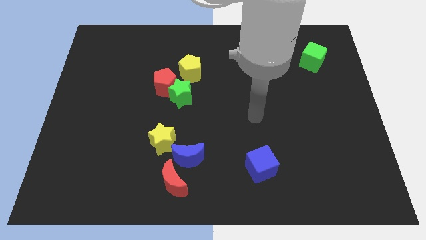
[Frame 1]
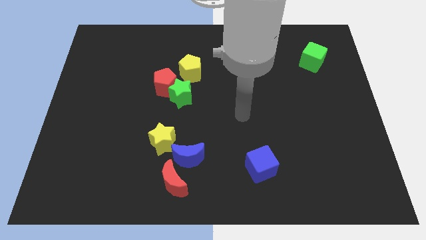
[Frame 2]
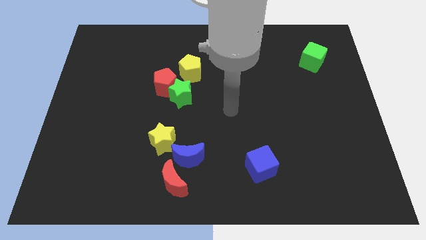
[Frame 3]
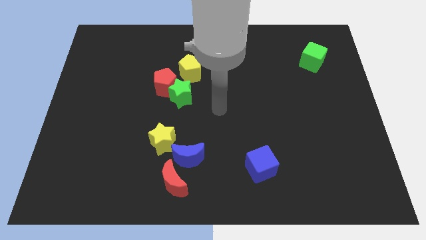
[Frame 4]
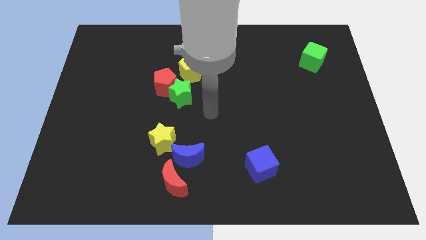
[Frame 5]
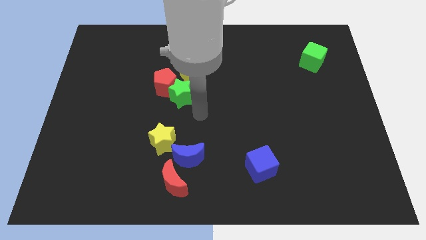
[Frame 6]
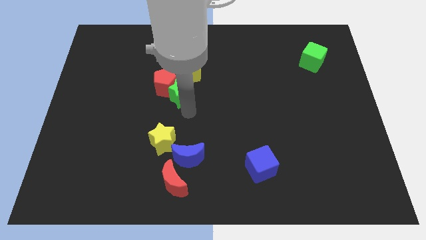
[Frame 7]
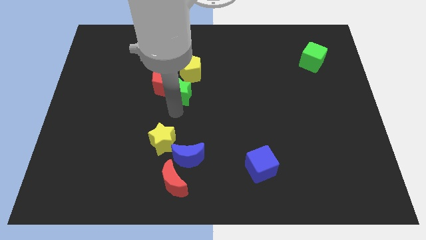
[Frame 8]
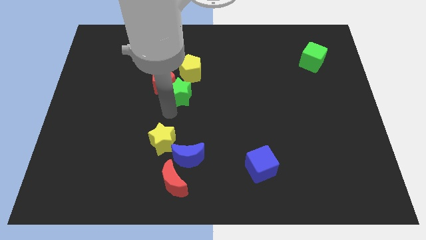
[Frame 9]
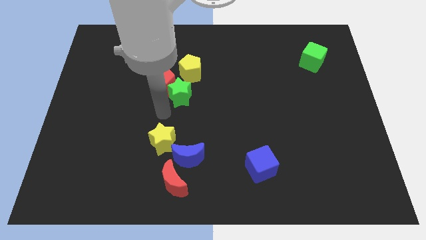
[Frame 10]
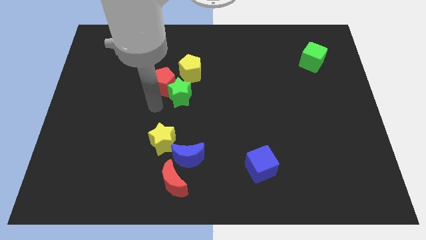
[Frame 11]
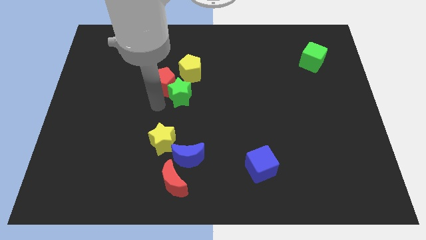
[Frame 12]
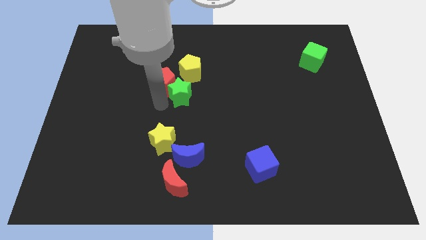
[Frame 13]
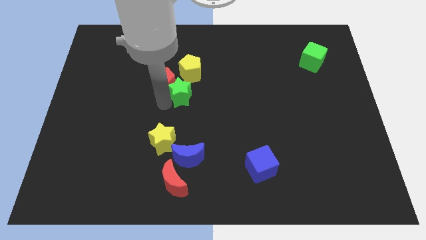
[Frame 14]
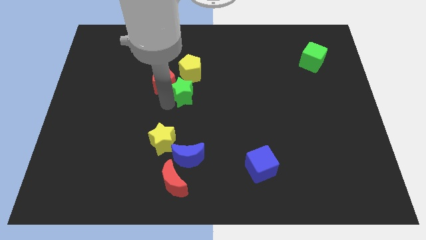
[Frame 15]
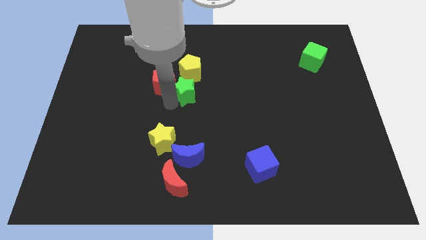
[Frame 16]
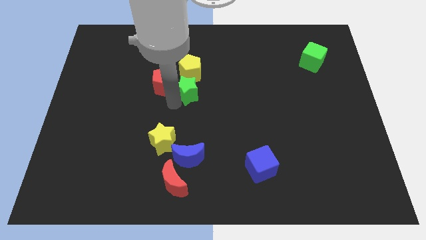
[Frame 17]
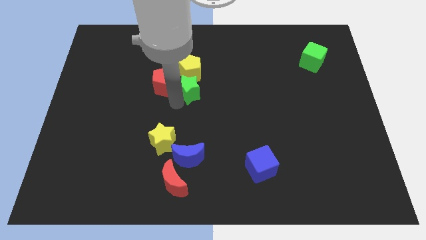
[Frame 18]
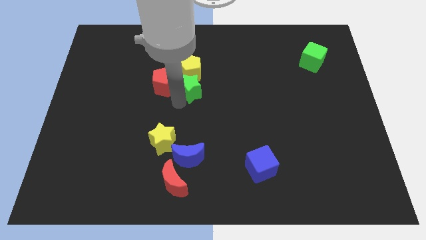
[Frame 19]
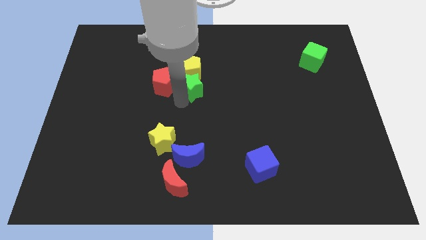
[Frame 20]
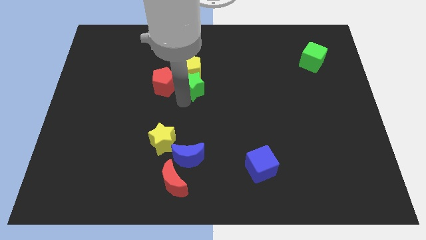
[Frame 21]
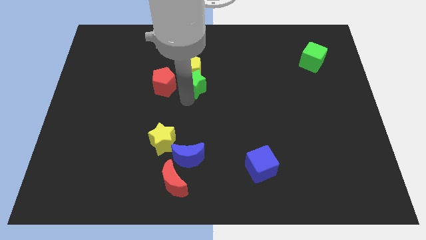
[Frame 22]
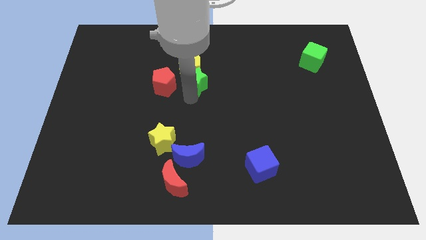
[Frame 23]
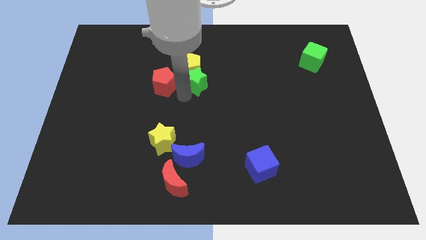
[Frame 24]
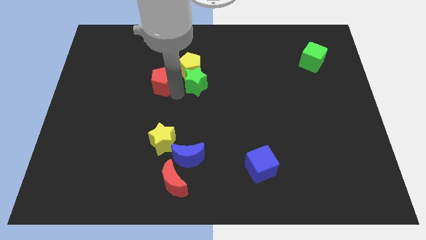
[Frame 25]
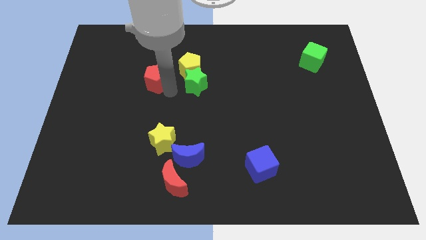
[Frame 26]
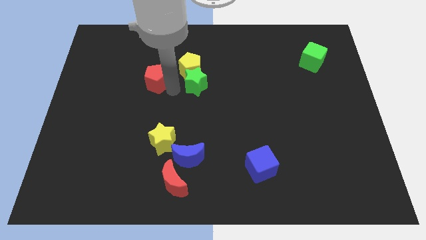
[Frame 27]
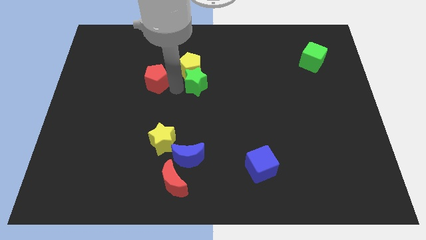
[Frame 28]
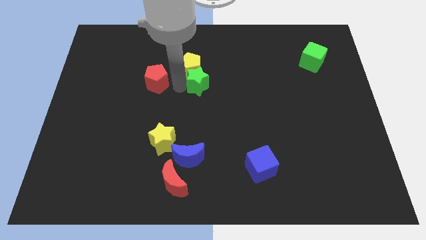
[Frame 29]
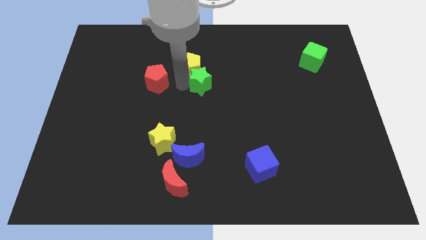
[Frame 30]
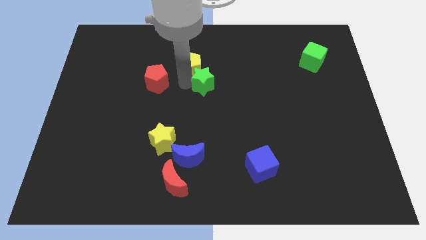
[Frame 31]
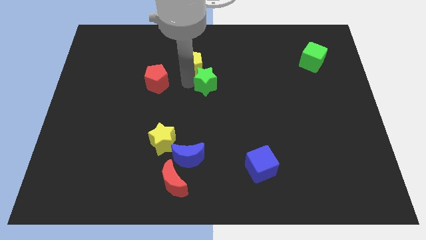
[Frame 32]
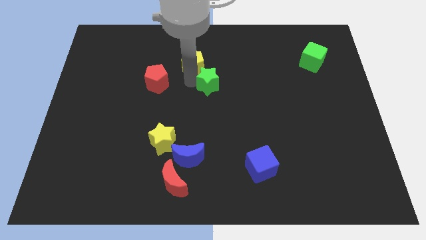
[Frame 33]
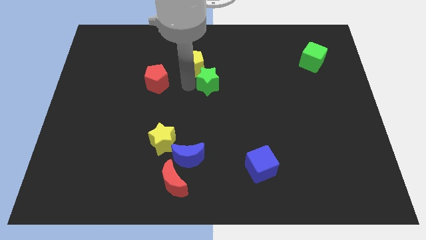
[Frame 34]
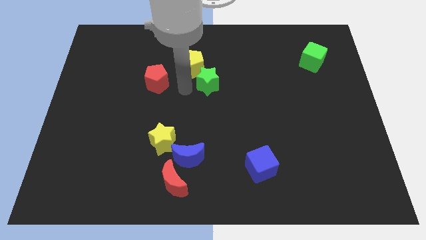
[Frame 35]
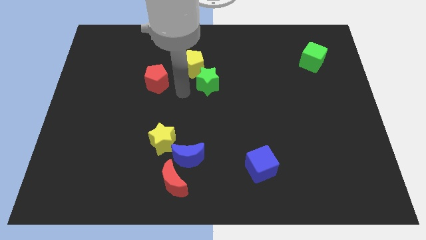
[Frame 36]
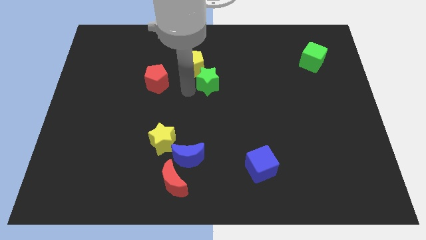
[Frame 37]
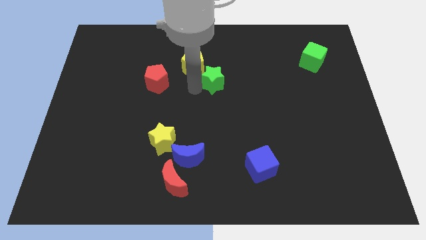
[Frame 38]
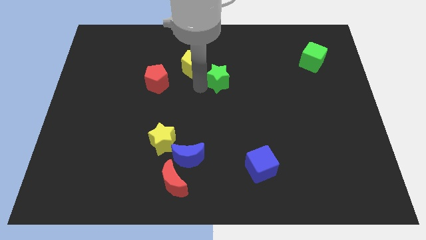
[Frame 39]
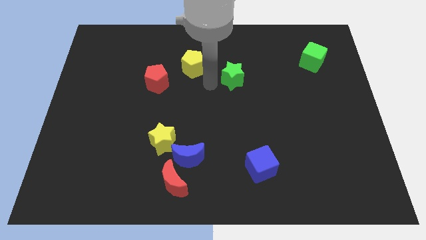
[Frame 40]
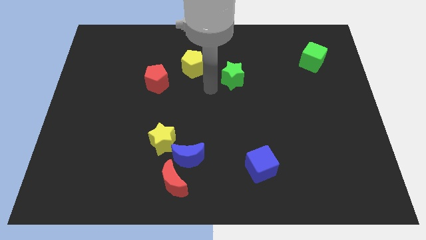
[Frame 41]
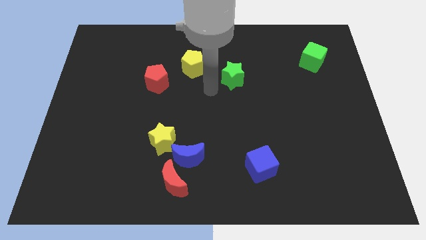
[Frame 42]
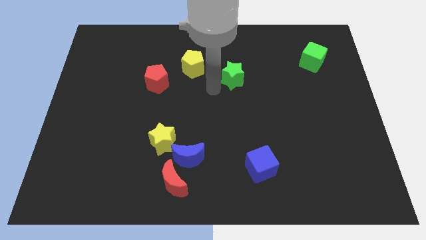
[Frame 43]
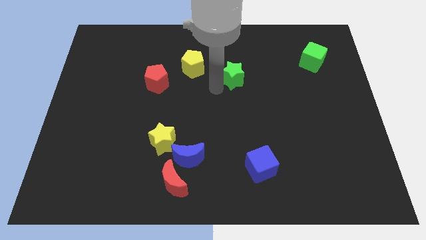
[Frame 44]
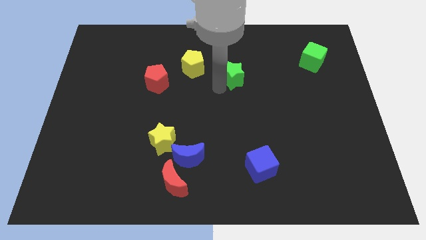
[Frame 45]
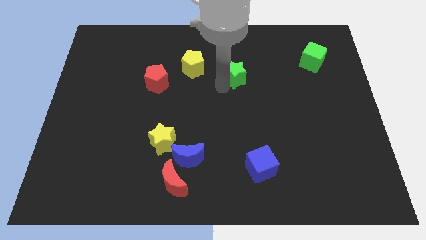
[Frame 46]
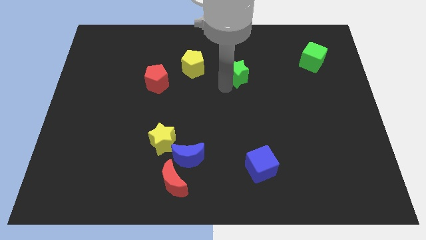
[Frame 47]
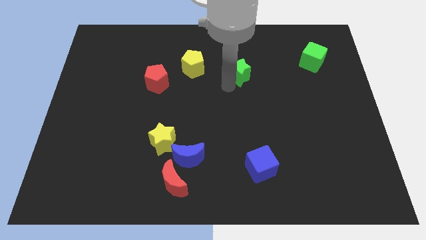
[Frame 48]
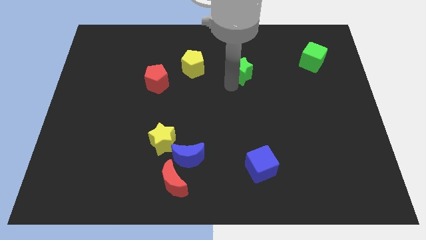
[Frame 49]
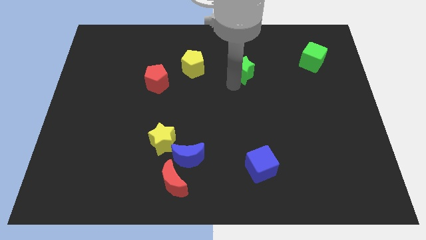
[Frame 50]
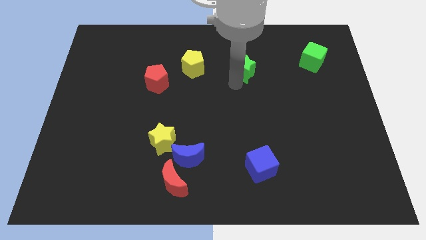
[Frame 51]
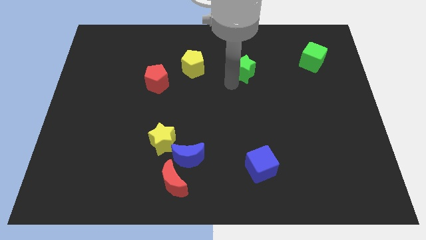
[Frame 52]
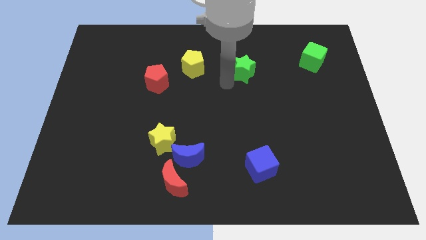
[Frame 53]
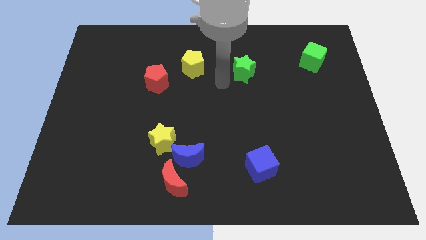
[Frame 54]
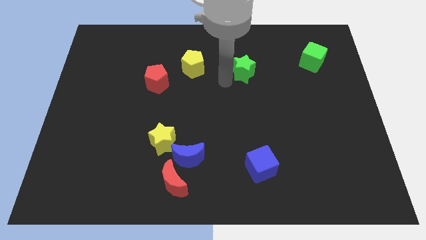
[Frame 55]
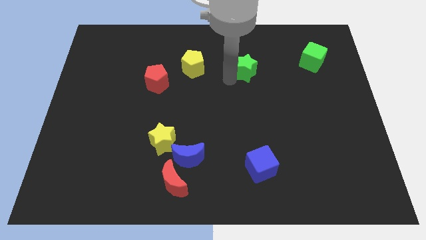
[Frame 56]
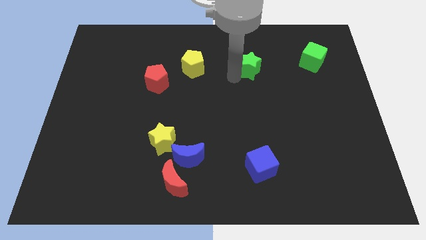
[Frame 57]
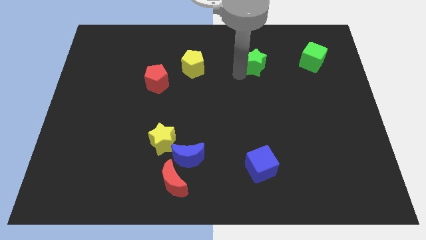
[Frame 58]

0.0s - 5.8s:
push the green star to the left of the green cube

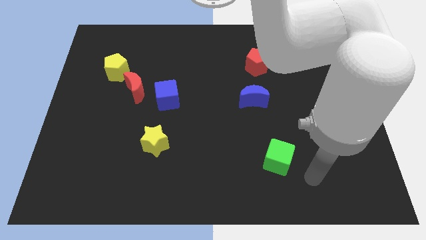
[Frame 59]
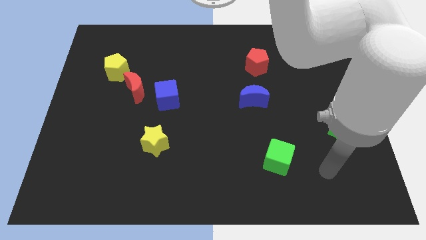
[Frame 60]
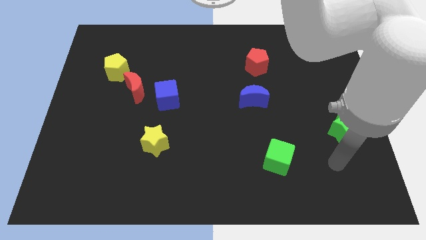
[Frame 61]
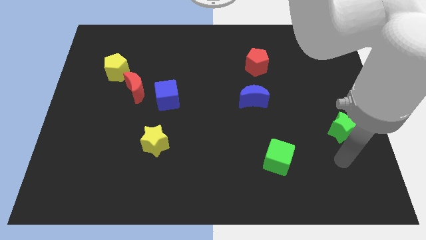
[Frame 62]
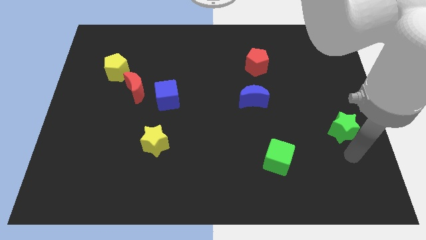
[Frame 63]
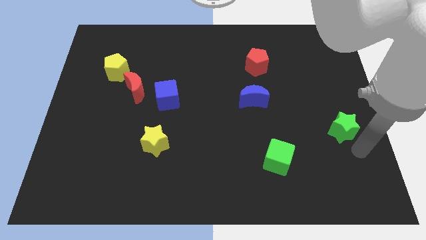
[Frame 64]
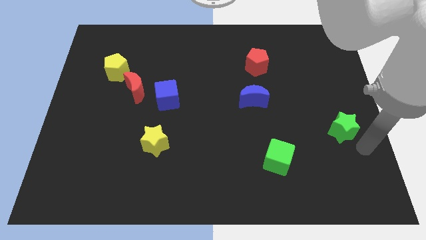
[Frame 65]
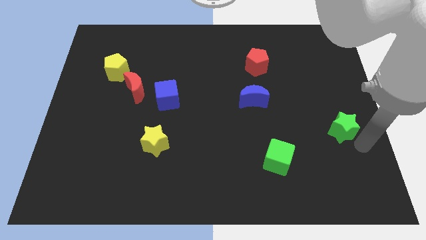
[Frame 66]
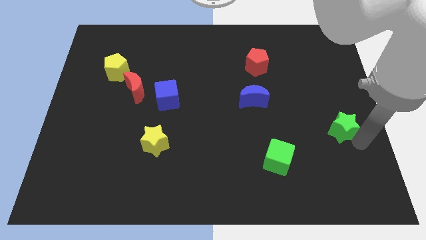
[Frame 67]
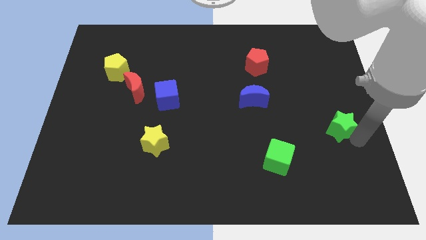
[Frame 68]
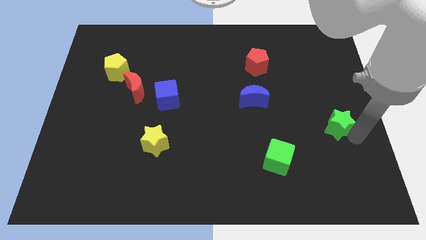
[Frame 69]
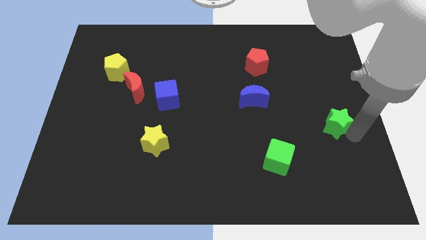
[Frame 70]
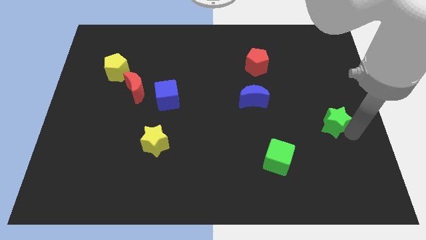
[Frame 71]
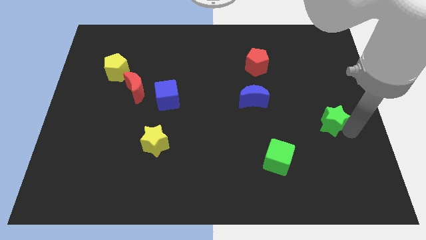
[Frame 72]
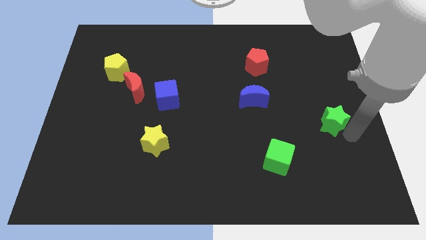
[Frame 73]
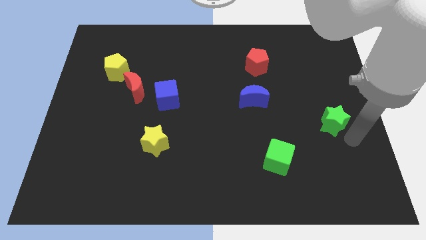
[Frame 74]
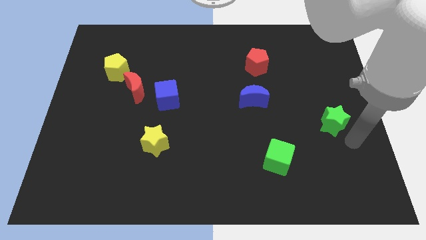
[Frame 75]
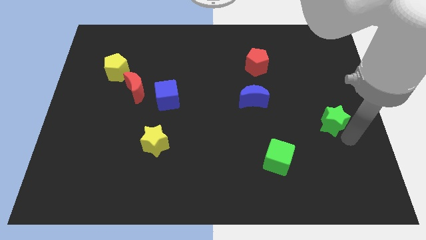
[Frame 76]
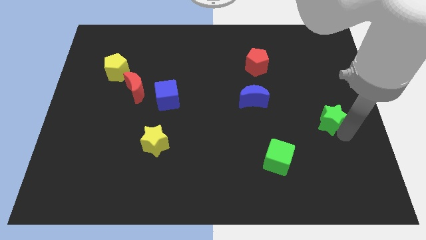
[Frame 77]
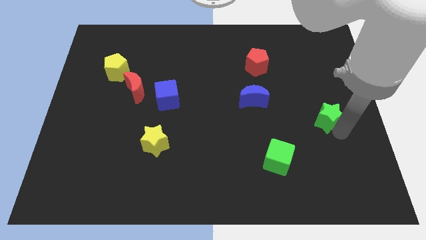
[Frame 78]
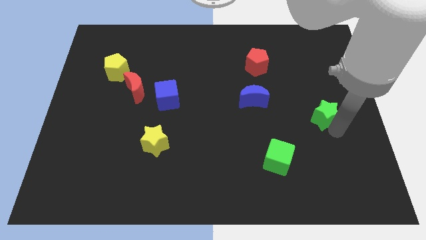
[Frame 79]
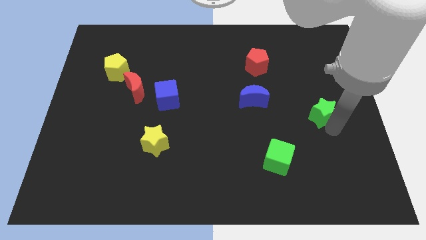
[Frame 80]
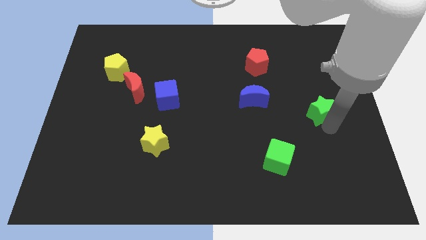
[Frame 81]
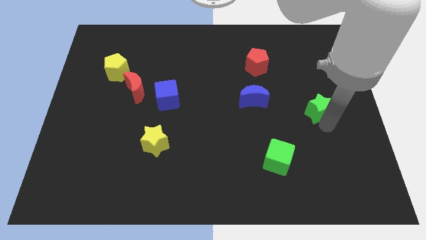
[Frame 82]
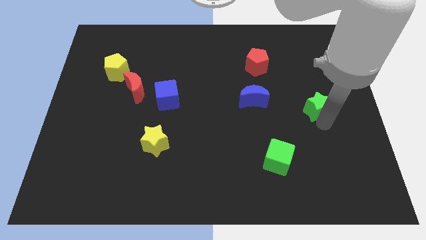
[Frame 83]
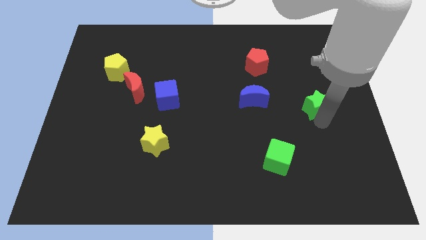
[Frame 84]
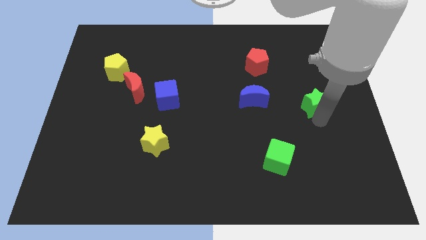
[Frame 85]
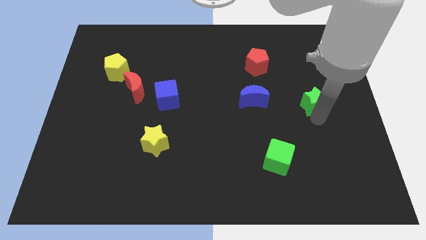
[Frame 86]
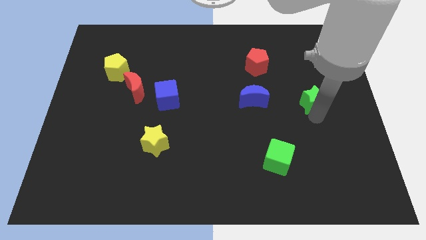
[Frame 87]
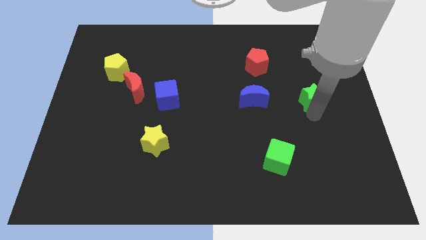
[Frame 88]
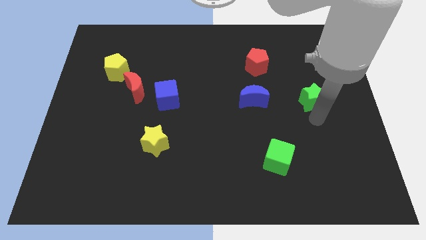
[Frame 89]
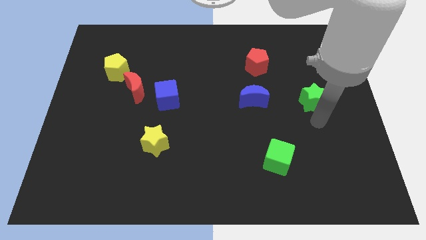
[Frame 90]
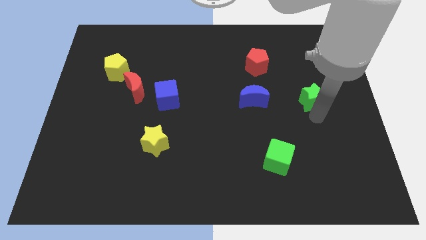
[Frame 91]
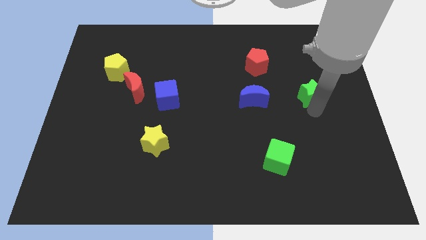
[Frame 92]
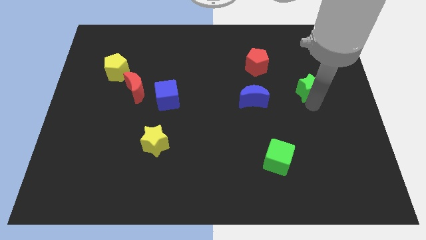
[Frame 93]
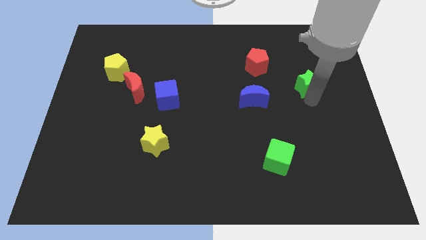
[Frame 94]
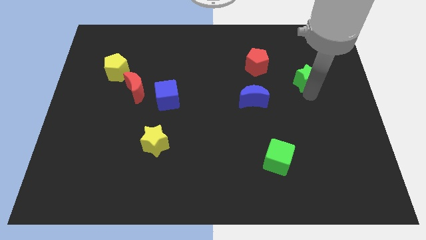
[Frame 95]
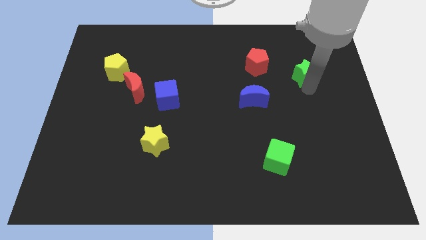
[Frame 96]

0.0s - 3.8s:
slide the green star right of the red pentagon
